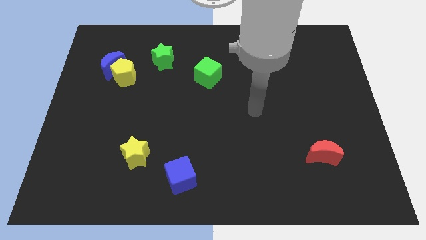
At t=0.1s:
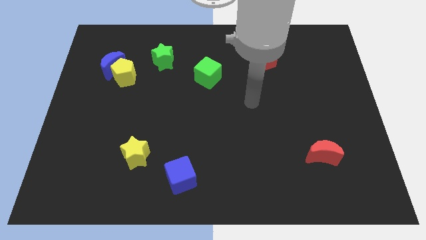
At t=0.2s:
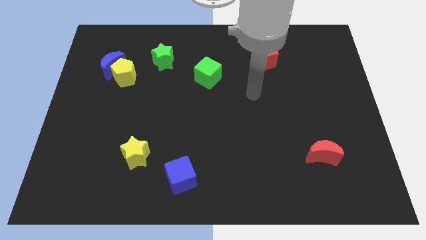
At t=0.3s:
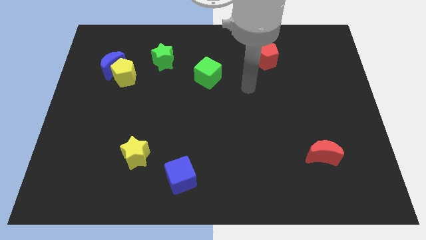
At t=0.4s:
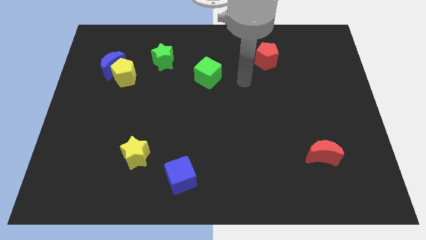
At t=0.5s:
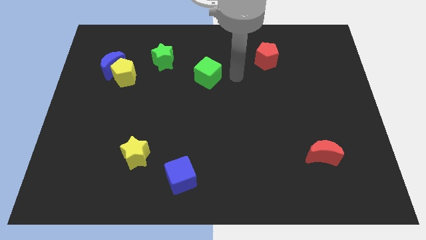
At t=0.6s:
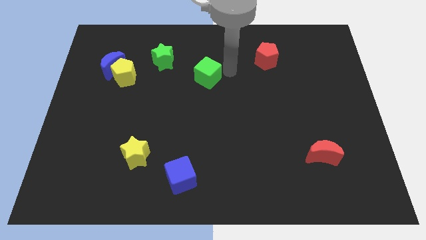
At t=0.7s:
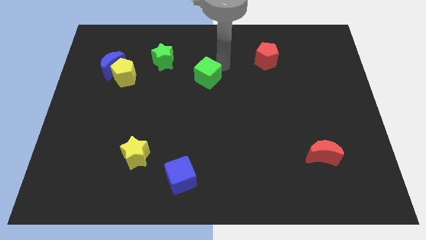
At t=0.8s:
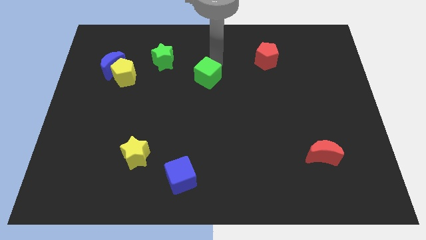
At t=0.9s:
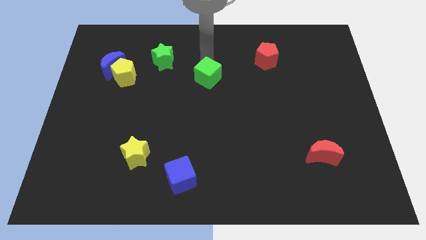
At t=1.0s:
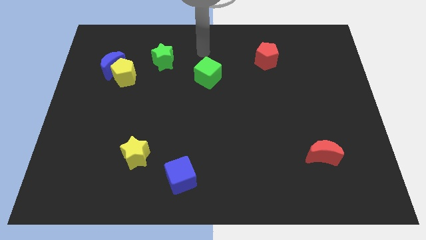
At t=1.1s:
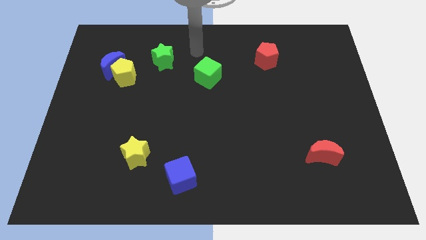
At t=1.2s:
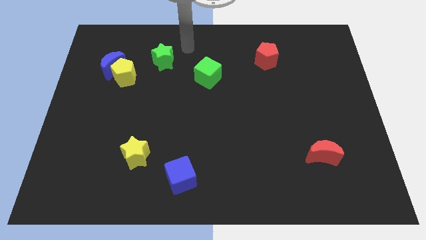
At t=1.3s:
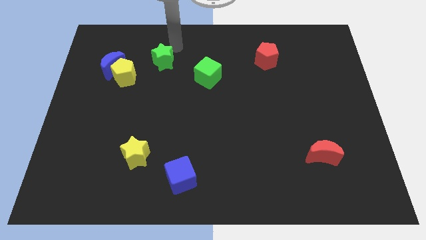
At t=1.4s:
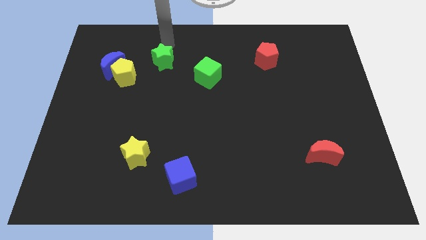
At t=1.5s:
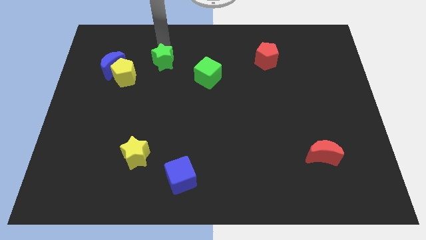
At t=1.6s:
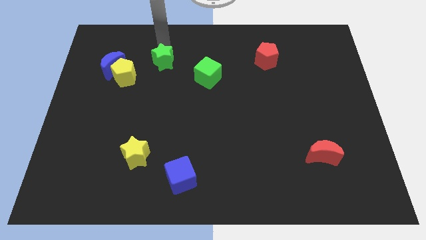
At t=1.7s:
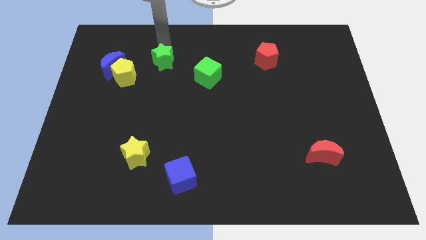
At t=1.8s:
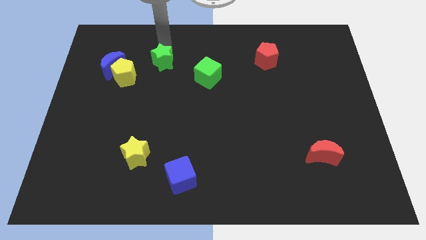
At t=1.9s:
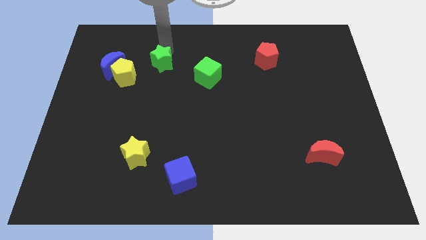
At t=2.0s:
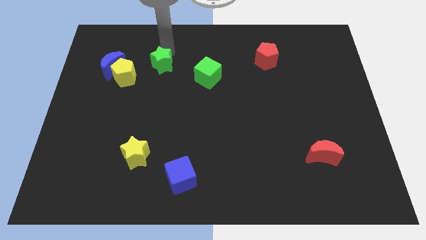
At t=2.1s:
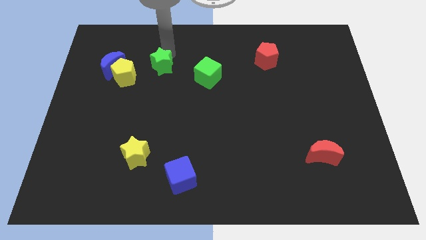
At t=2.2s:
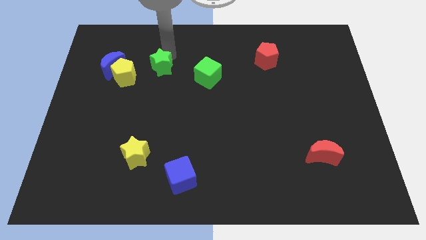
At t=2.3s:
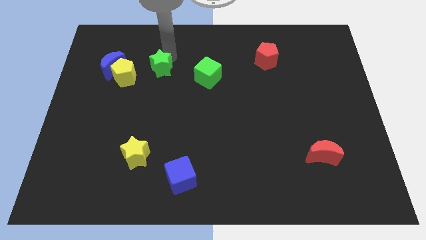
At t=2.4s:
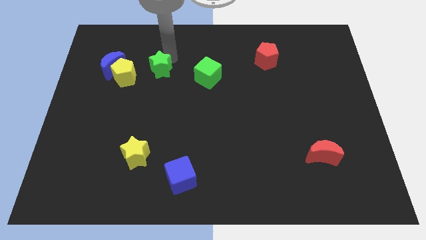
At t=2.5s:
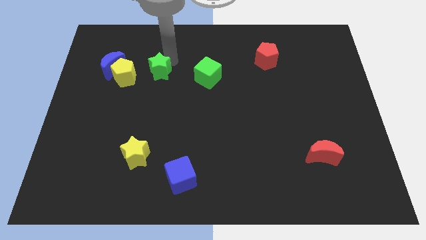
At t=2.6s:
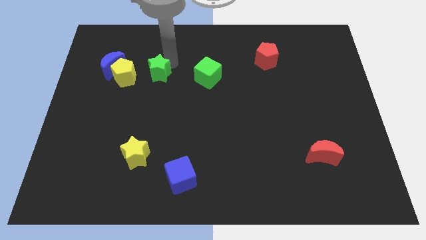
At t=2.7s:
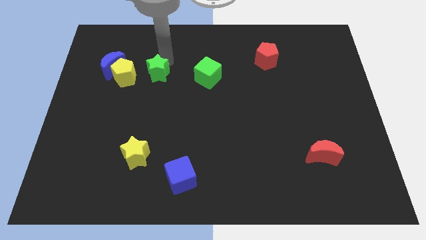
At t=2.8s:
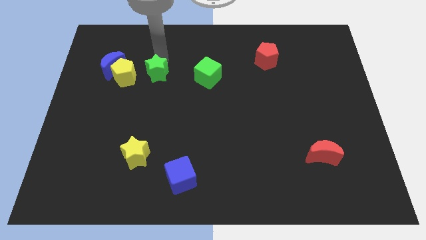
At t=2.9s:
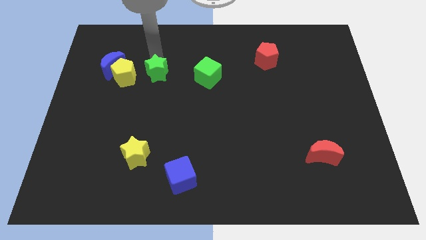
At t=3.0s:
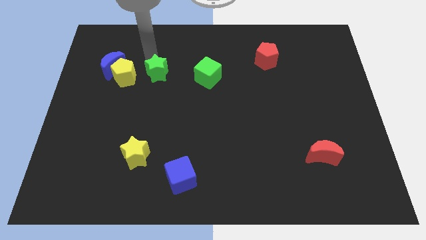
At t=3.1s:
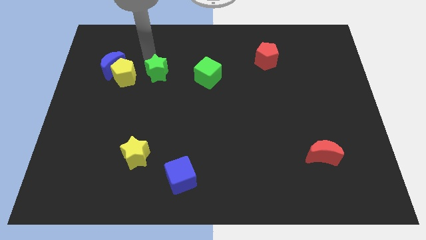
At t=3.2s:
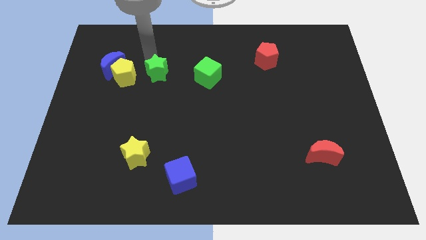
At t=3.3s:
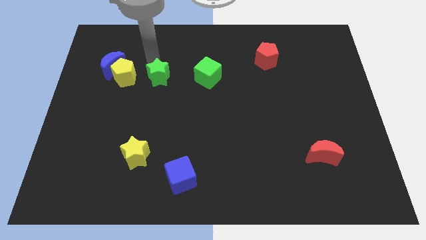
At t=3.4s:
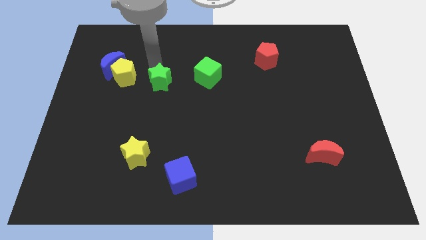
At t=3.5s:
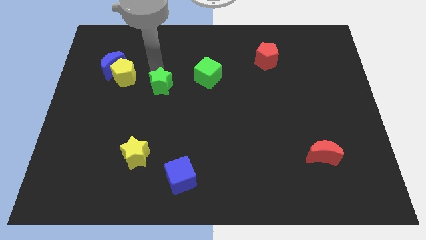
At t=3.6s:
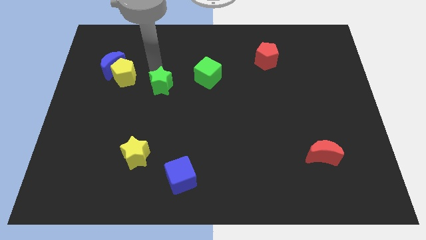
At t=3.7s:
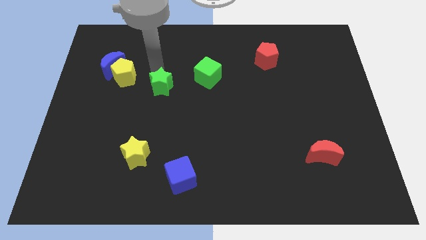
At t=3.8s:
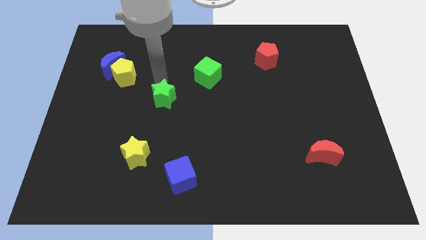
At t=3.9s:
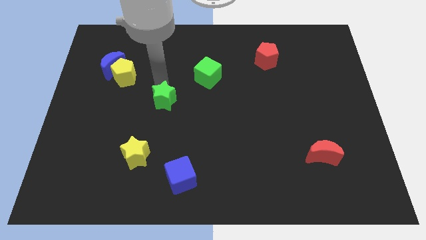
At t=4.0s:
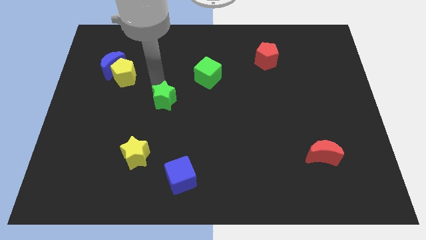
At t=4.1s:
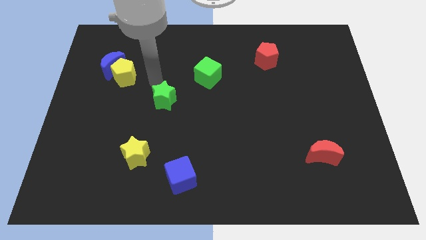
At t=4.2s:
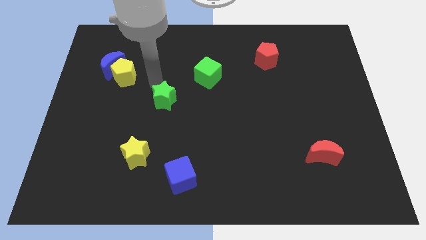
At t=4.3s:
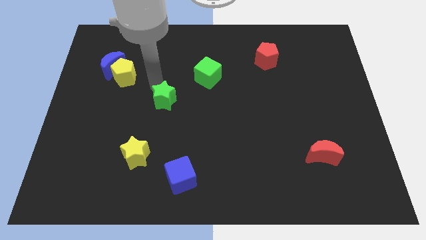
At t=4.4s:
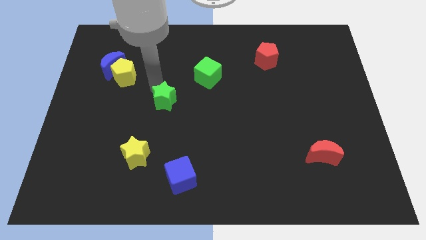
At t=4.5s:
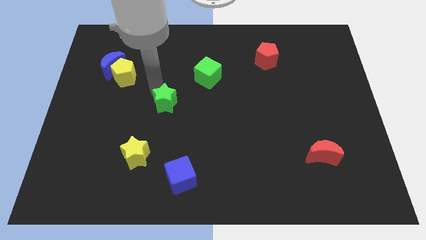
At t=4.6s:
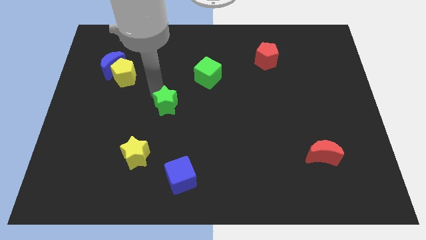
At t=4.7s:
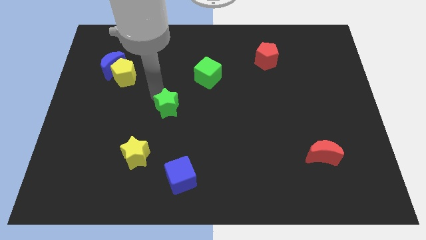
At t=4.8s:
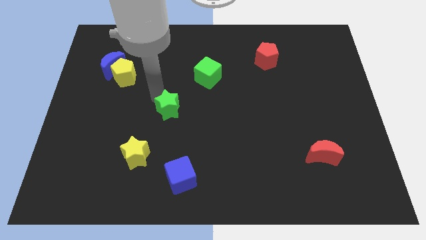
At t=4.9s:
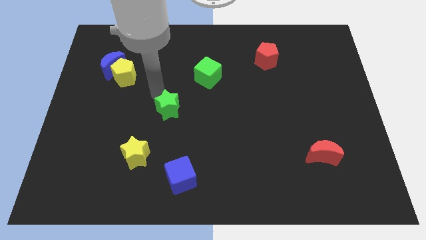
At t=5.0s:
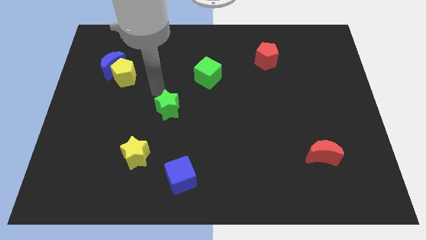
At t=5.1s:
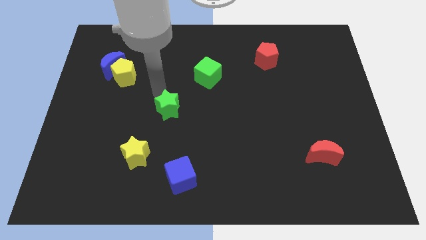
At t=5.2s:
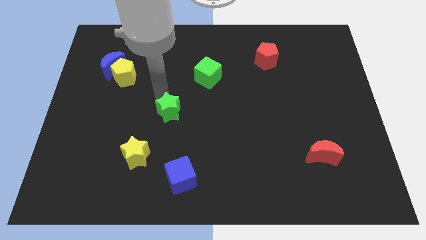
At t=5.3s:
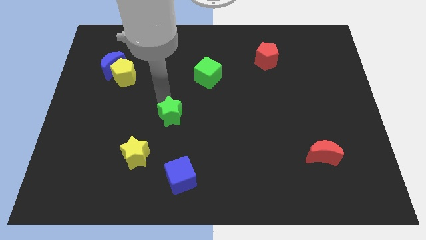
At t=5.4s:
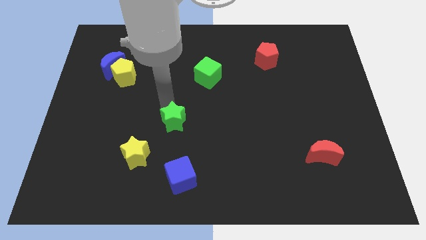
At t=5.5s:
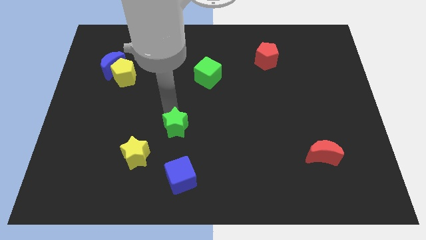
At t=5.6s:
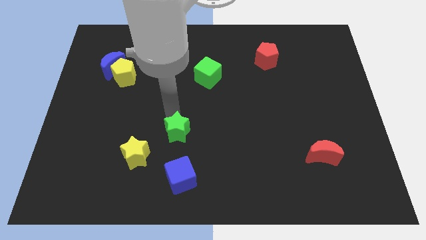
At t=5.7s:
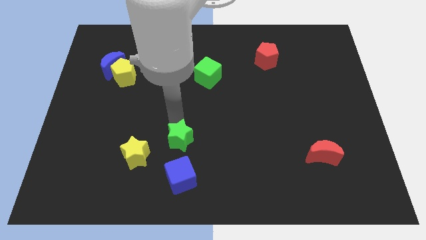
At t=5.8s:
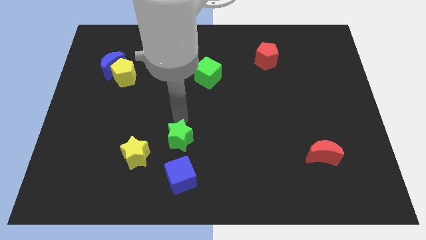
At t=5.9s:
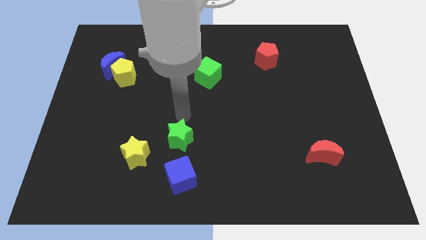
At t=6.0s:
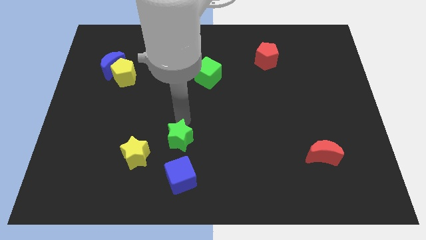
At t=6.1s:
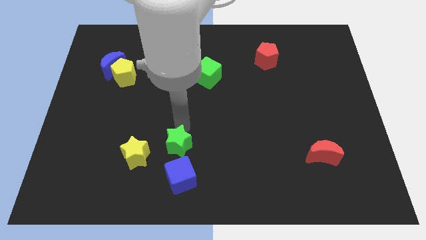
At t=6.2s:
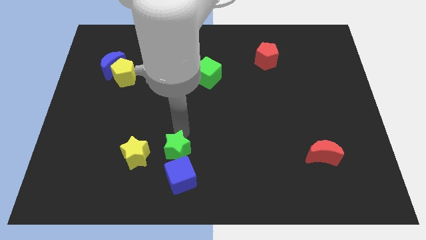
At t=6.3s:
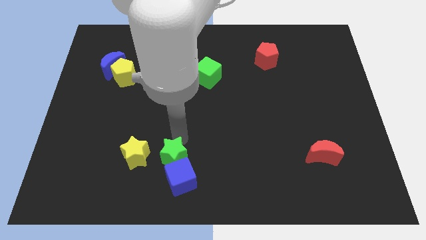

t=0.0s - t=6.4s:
move the green star close to the blue cube

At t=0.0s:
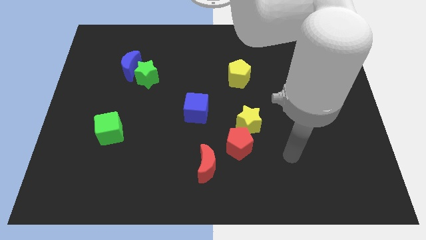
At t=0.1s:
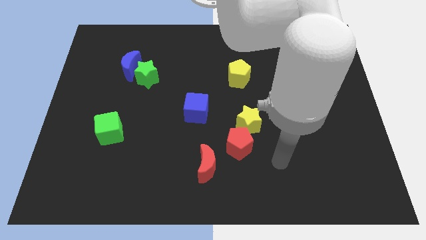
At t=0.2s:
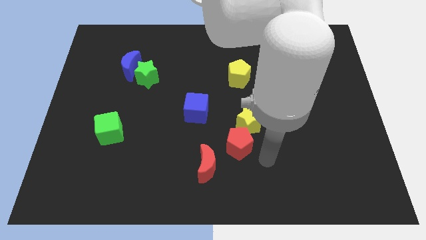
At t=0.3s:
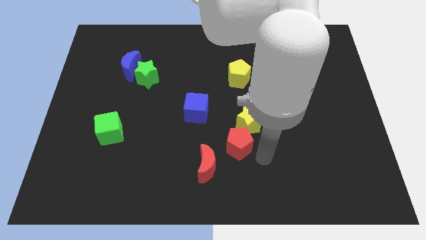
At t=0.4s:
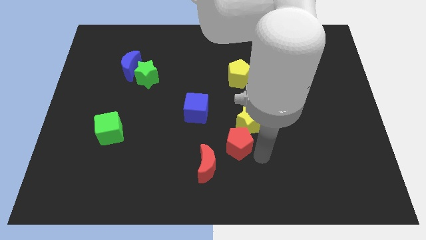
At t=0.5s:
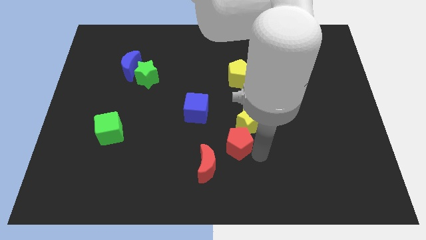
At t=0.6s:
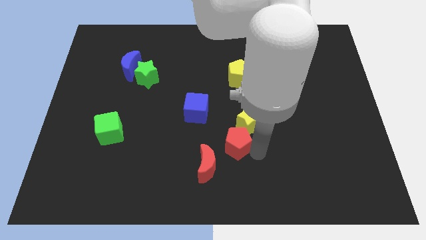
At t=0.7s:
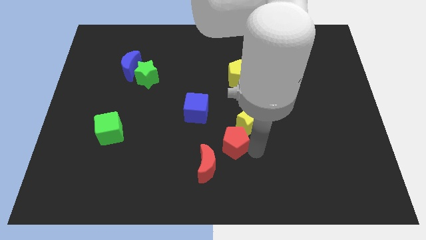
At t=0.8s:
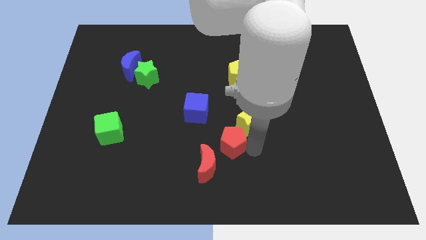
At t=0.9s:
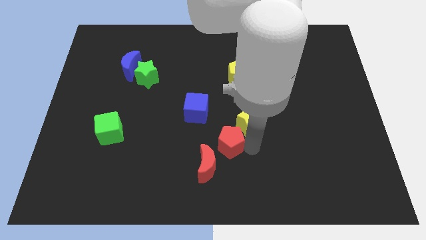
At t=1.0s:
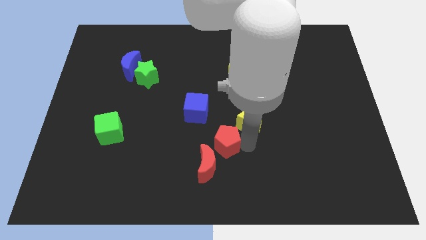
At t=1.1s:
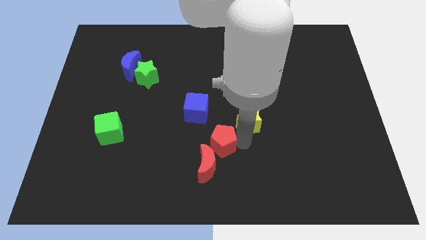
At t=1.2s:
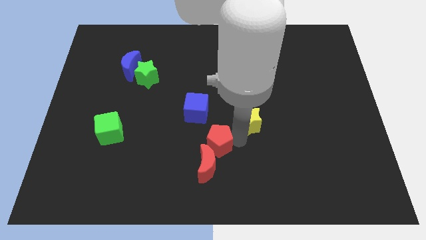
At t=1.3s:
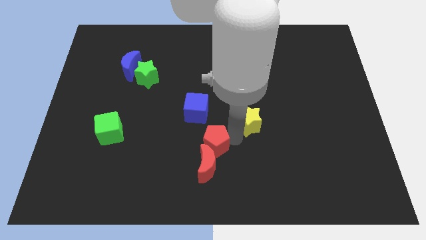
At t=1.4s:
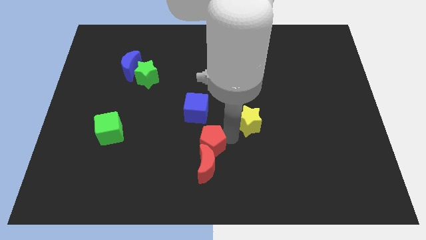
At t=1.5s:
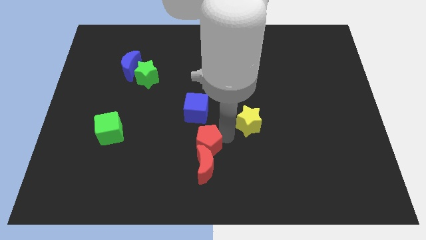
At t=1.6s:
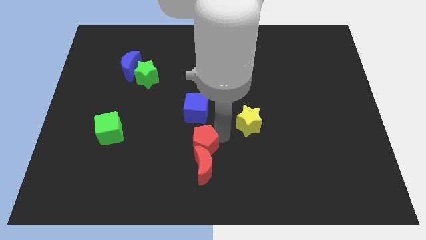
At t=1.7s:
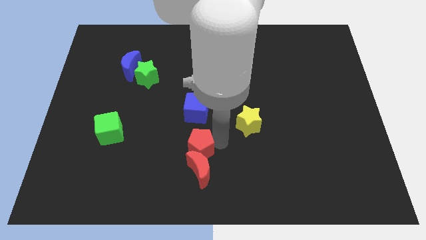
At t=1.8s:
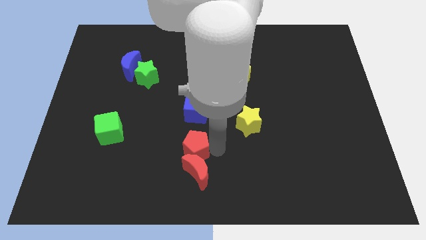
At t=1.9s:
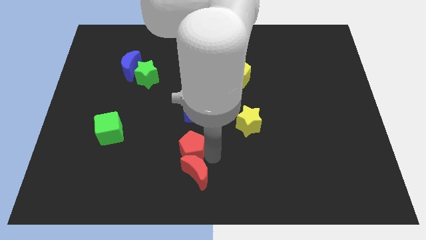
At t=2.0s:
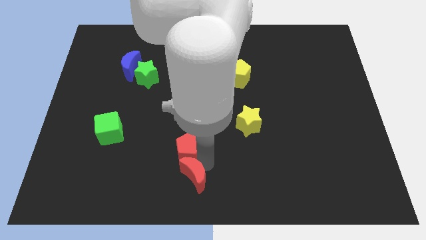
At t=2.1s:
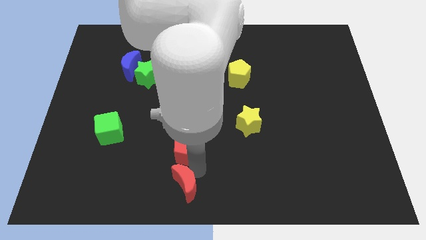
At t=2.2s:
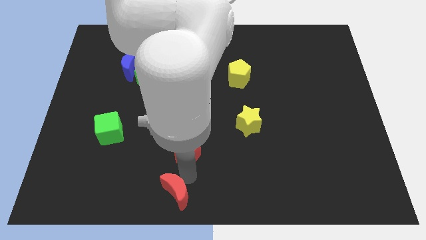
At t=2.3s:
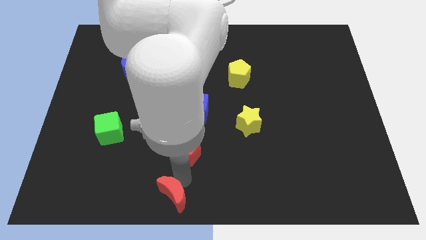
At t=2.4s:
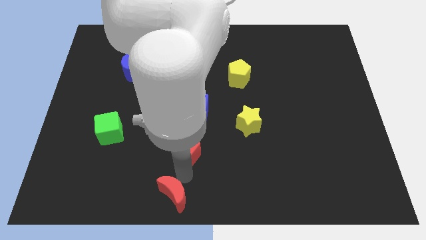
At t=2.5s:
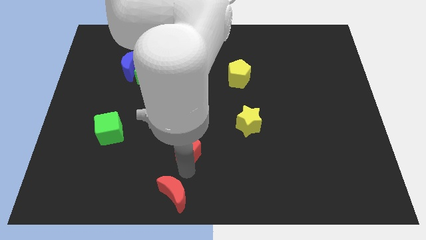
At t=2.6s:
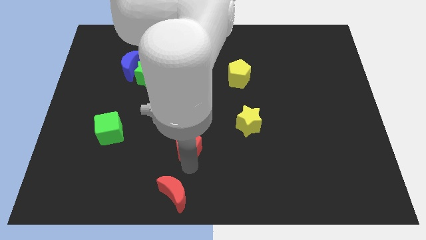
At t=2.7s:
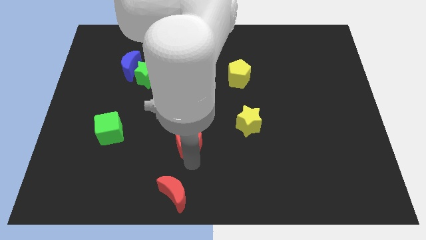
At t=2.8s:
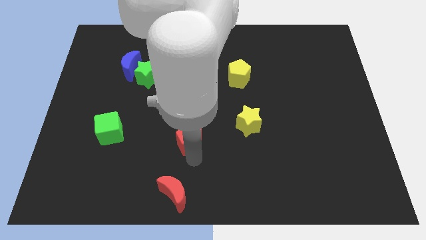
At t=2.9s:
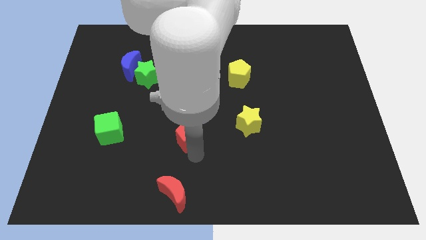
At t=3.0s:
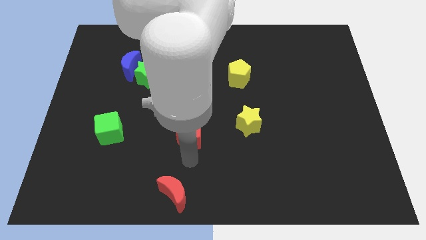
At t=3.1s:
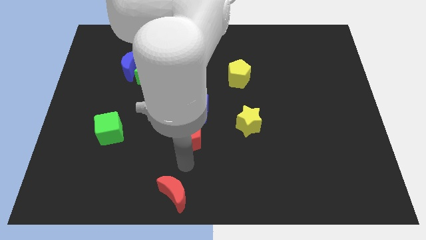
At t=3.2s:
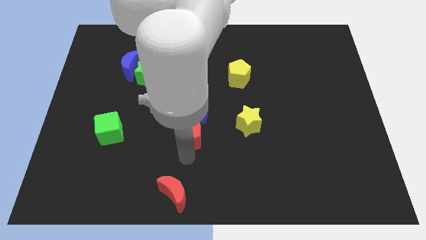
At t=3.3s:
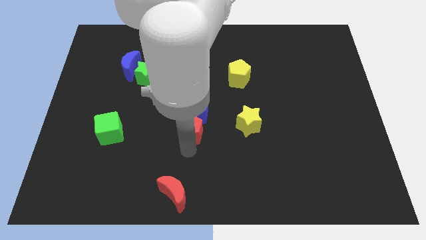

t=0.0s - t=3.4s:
slide the red pentagon close to the blue cube
